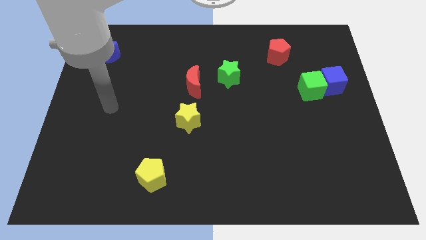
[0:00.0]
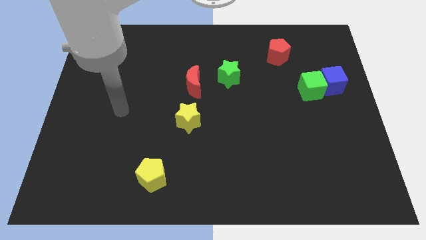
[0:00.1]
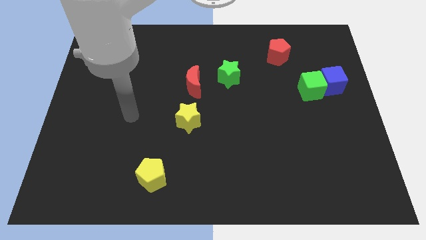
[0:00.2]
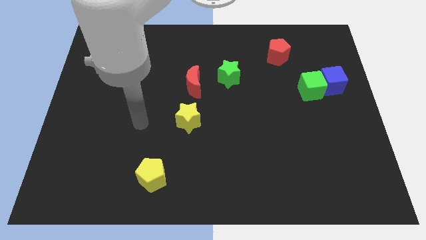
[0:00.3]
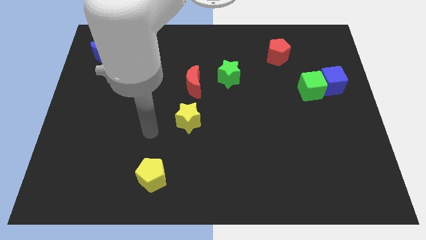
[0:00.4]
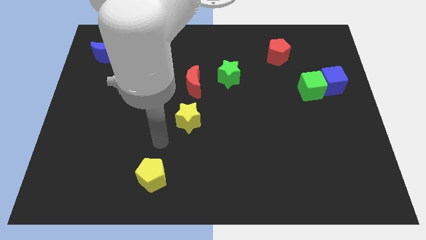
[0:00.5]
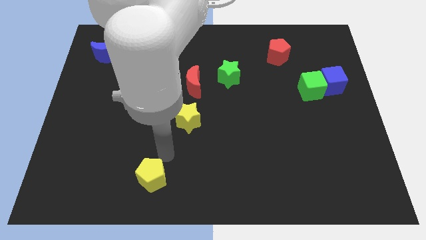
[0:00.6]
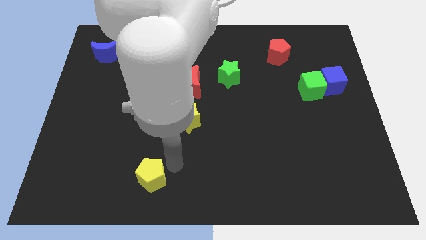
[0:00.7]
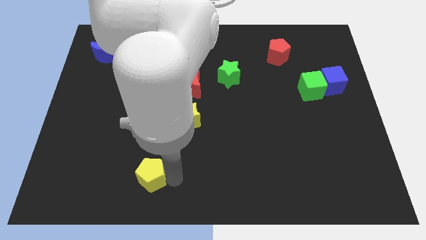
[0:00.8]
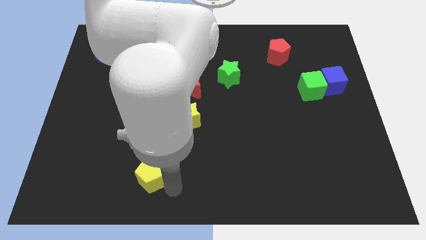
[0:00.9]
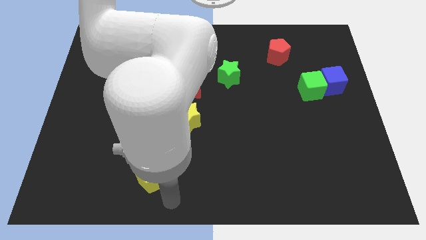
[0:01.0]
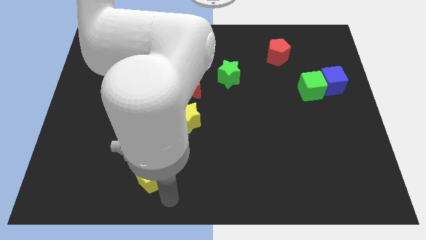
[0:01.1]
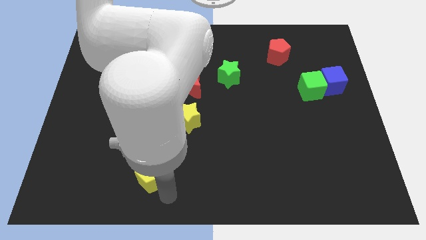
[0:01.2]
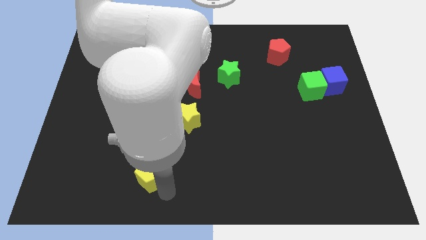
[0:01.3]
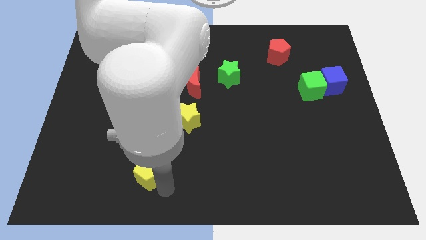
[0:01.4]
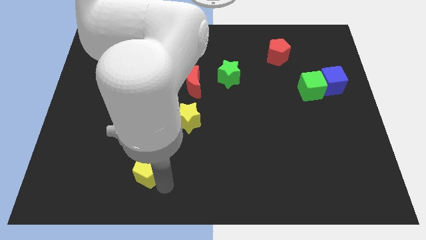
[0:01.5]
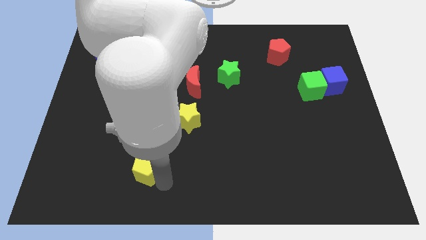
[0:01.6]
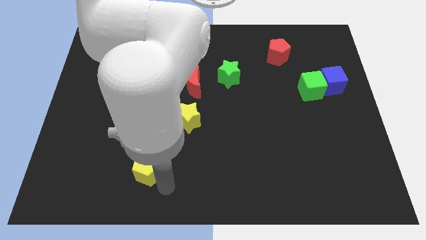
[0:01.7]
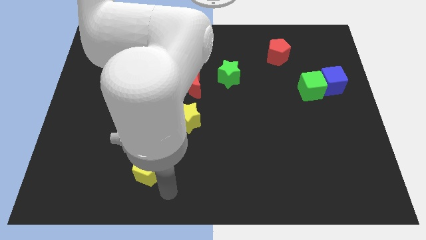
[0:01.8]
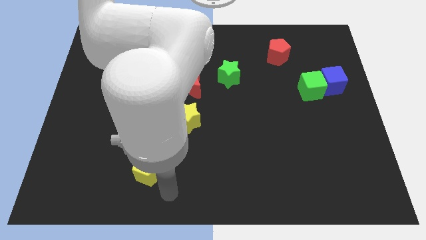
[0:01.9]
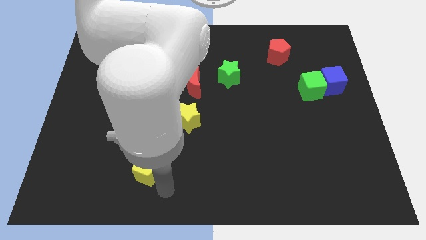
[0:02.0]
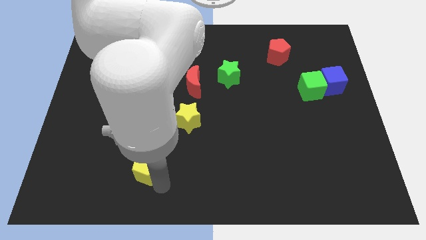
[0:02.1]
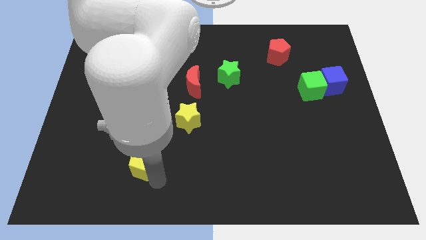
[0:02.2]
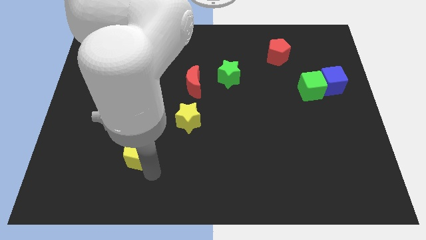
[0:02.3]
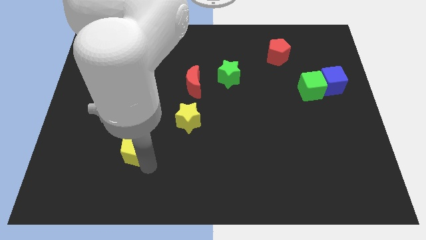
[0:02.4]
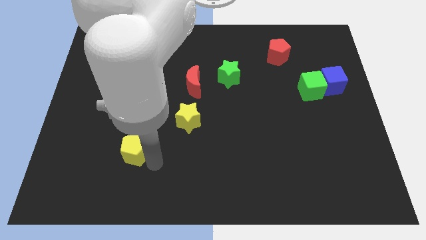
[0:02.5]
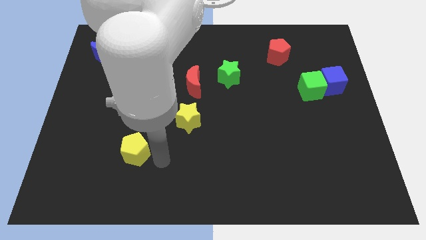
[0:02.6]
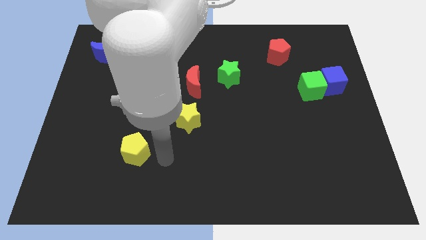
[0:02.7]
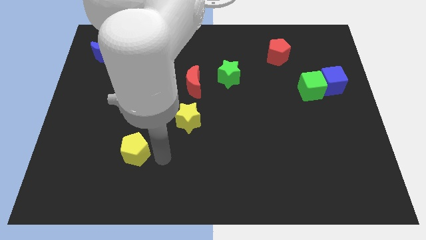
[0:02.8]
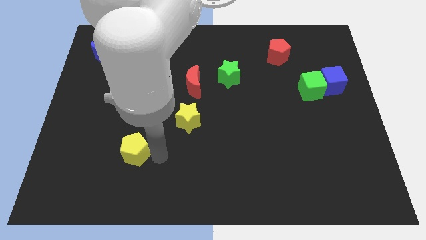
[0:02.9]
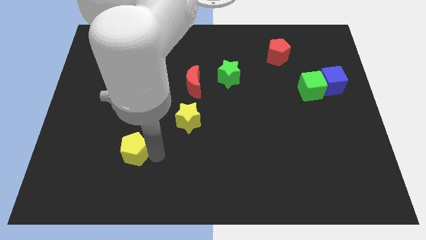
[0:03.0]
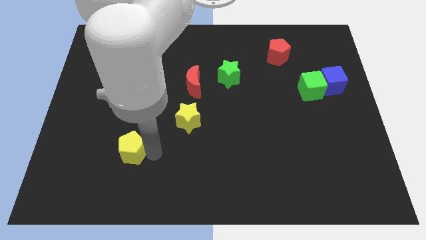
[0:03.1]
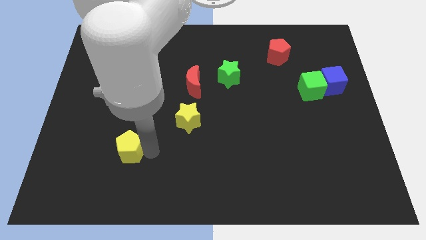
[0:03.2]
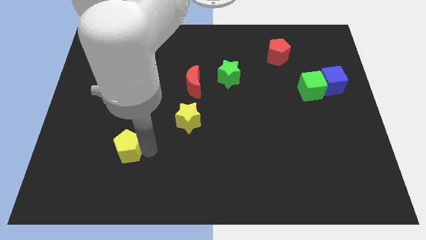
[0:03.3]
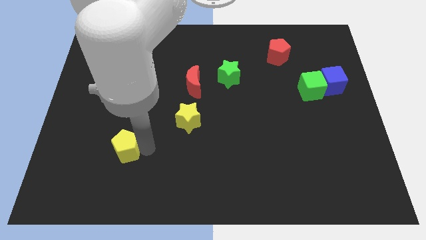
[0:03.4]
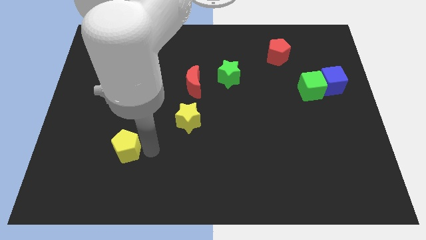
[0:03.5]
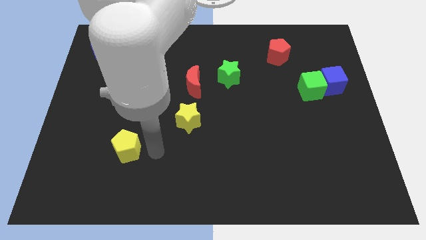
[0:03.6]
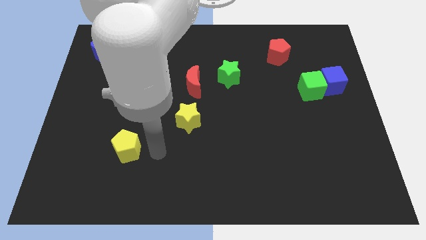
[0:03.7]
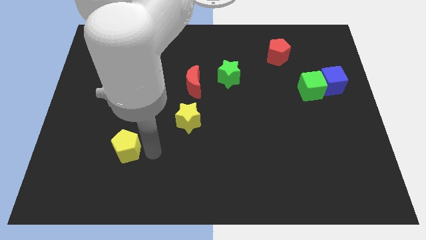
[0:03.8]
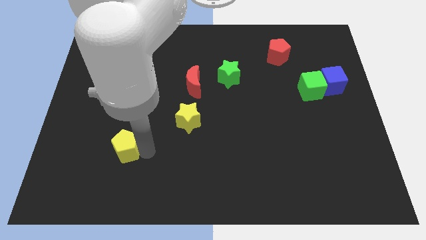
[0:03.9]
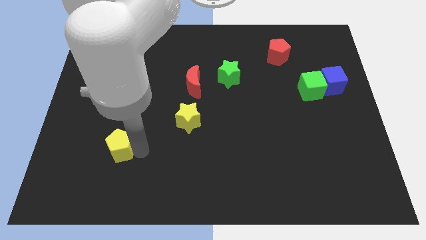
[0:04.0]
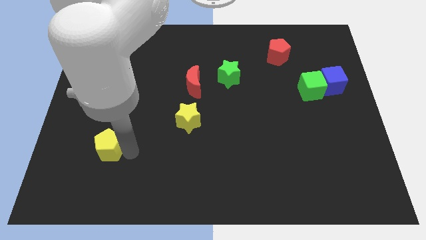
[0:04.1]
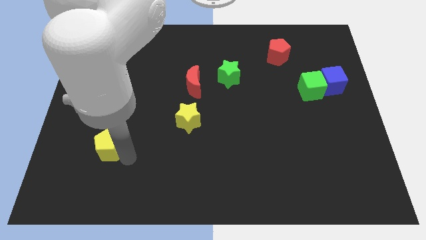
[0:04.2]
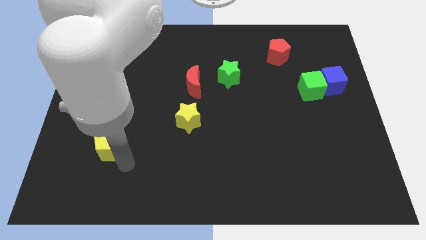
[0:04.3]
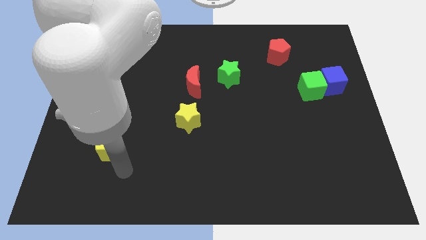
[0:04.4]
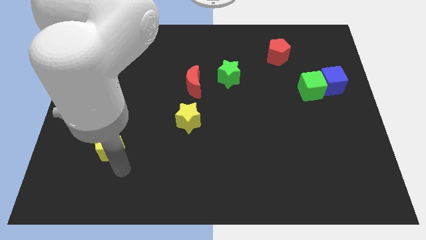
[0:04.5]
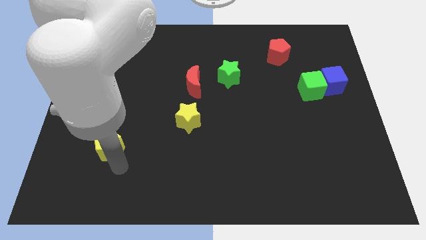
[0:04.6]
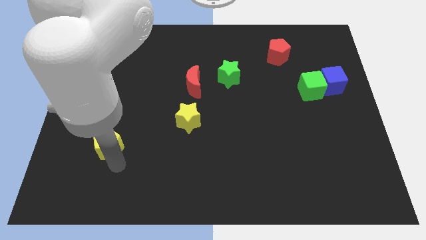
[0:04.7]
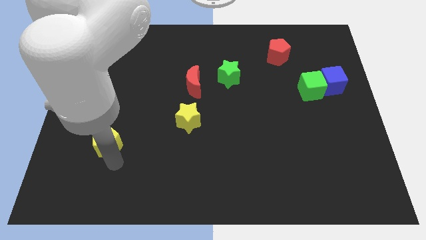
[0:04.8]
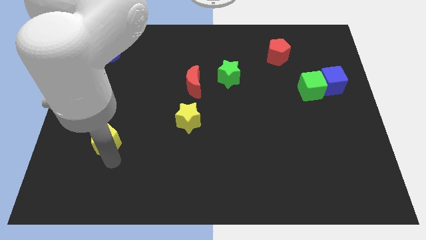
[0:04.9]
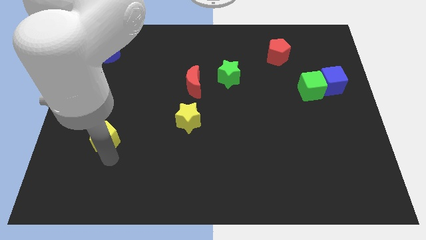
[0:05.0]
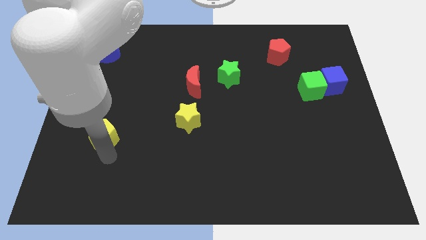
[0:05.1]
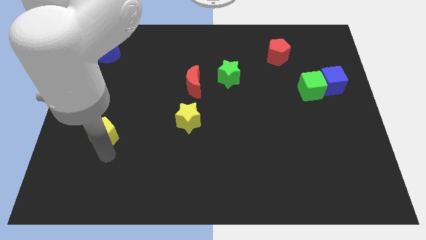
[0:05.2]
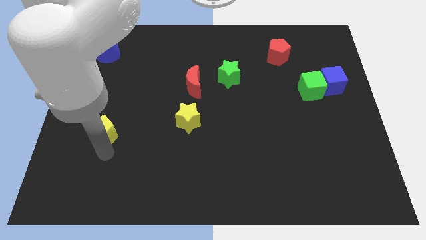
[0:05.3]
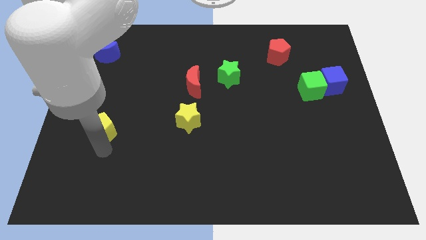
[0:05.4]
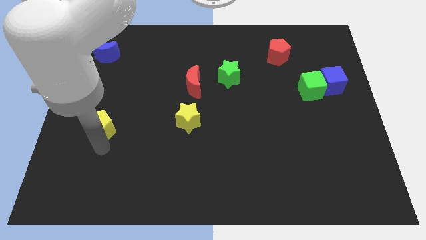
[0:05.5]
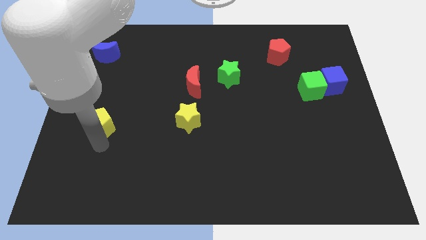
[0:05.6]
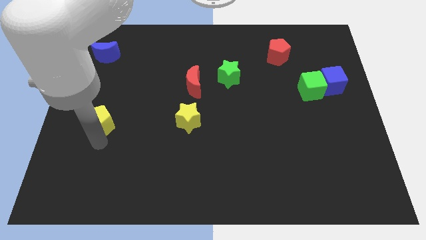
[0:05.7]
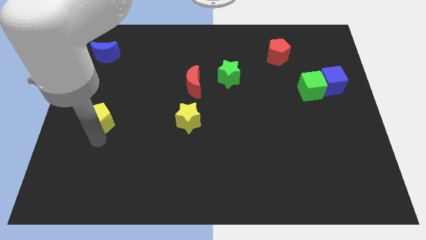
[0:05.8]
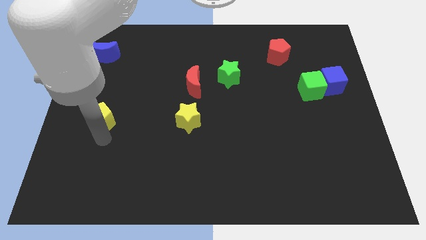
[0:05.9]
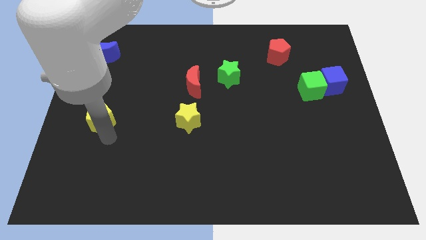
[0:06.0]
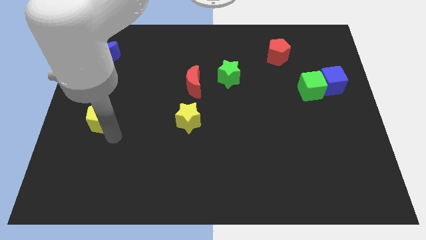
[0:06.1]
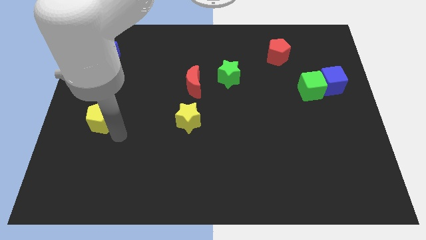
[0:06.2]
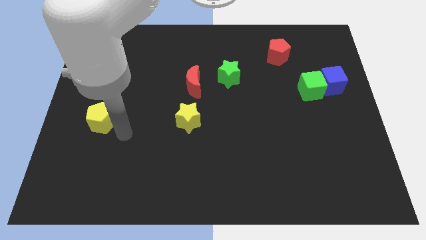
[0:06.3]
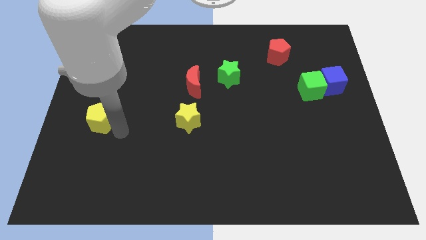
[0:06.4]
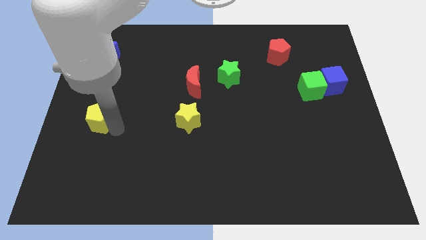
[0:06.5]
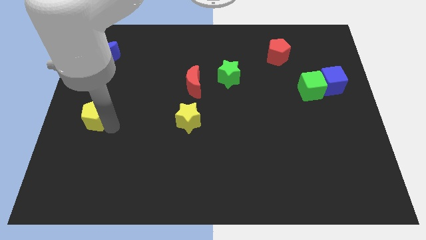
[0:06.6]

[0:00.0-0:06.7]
put the yellow pentagon to the left side

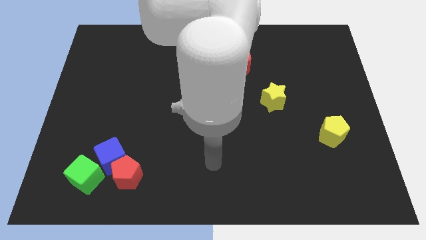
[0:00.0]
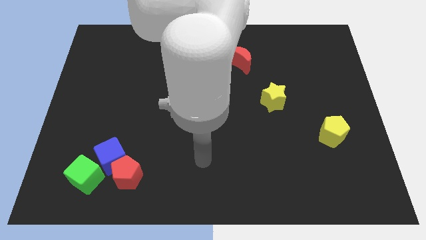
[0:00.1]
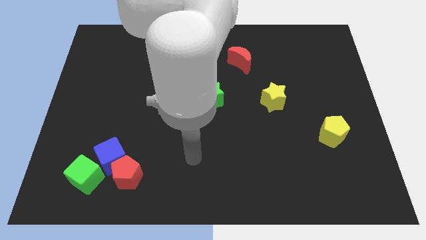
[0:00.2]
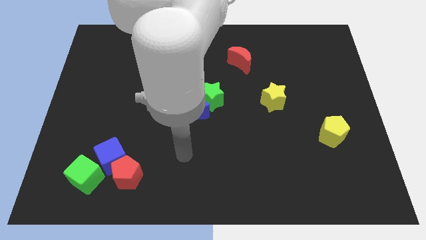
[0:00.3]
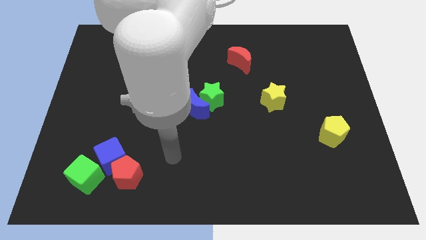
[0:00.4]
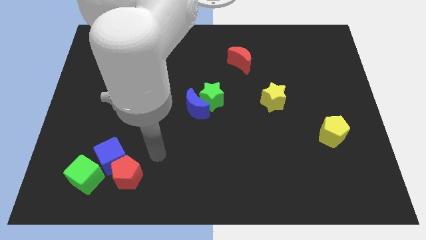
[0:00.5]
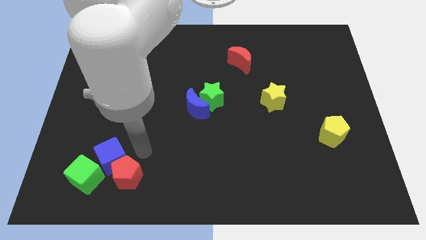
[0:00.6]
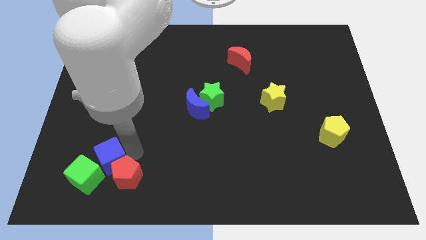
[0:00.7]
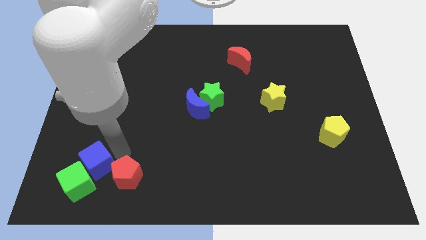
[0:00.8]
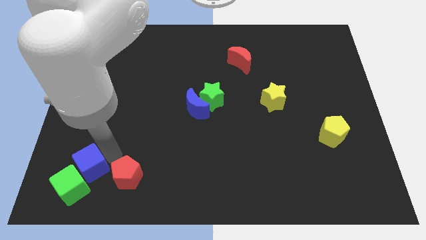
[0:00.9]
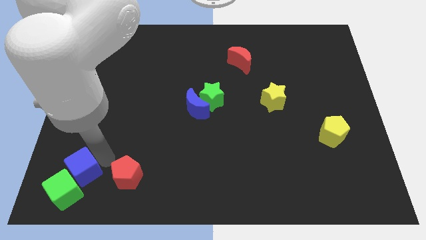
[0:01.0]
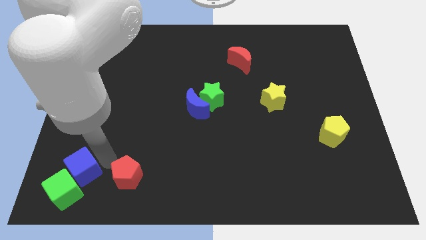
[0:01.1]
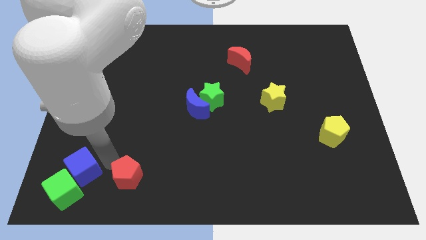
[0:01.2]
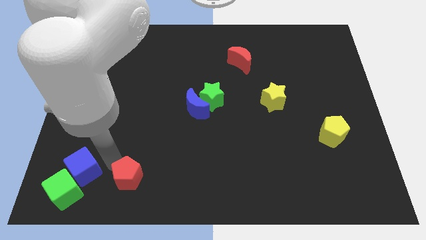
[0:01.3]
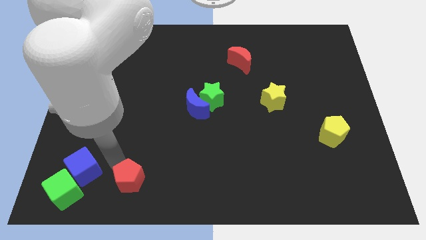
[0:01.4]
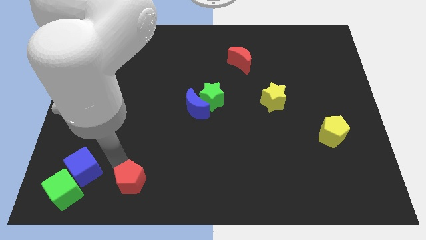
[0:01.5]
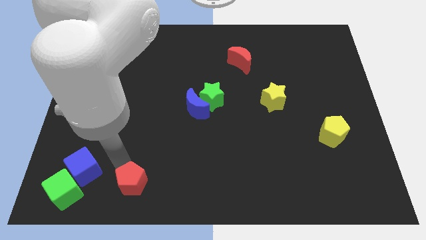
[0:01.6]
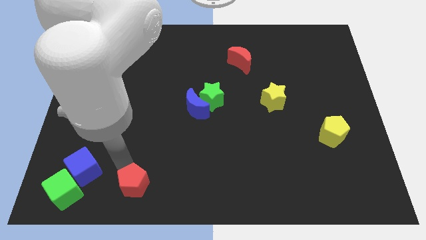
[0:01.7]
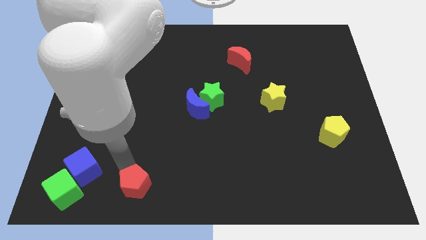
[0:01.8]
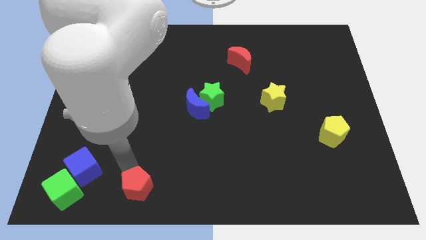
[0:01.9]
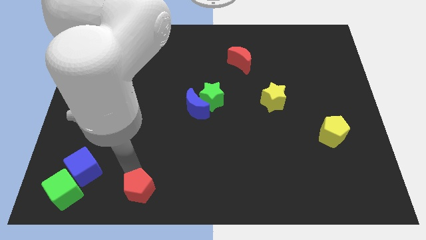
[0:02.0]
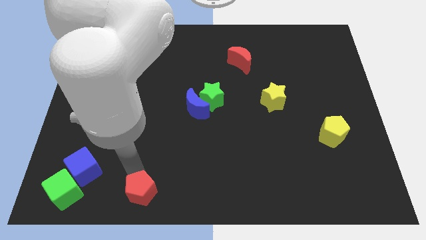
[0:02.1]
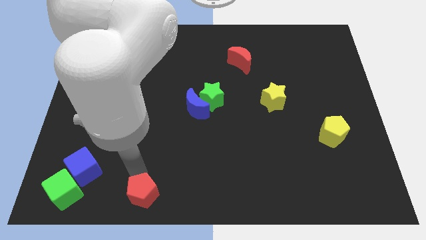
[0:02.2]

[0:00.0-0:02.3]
move the red pentagon to the bottom
